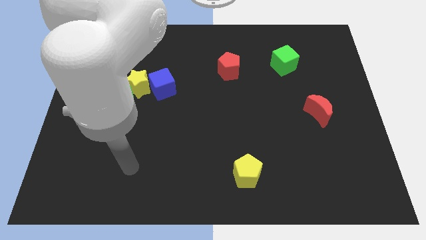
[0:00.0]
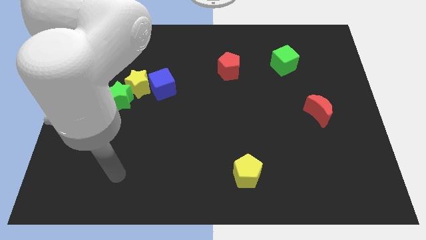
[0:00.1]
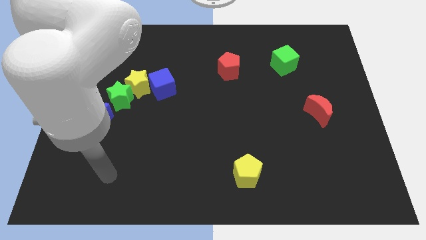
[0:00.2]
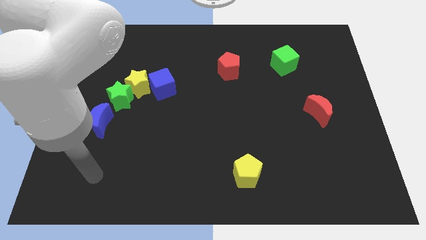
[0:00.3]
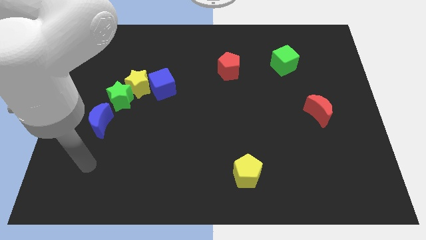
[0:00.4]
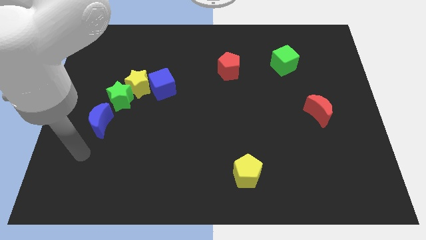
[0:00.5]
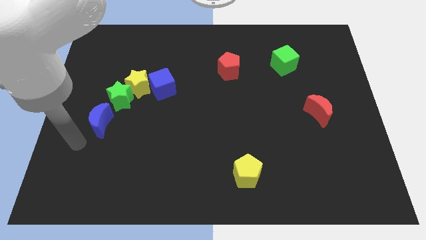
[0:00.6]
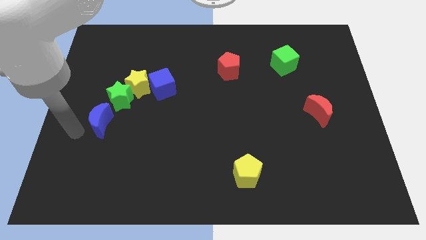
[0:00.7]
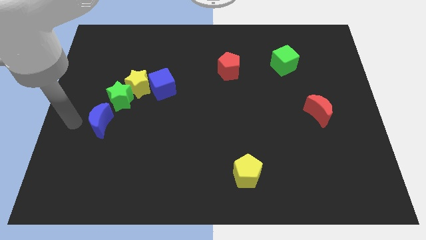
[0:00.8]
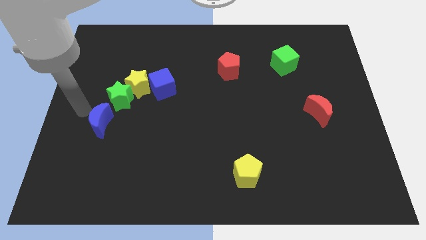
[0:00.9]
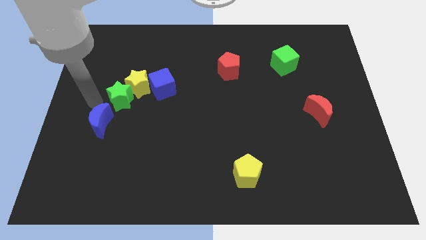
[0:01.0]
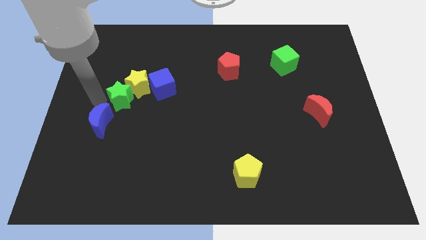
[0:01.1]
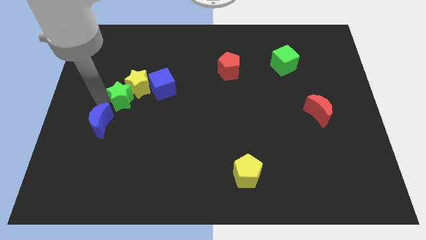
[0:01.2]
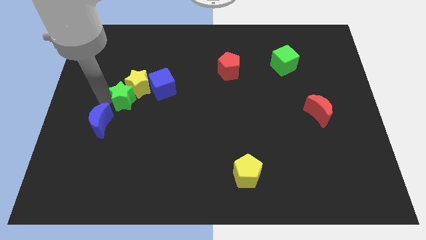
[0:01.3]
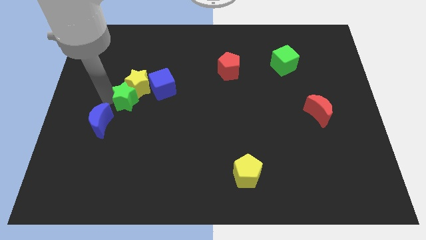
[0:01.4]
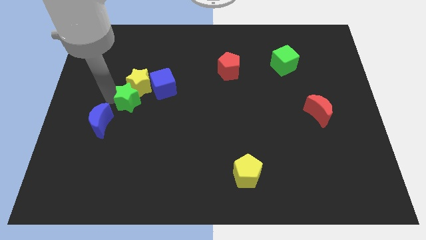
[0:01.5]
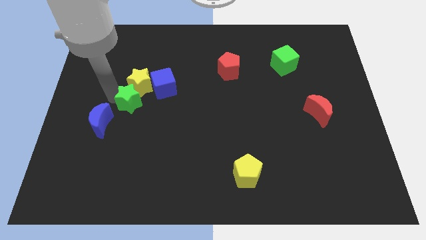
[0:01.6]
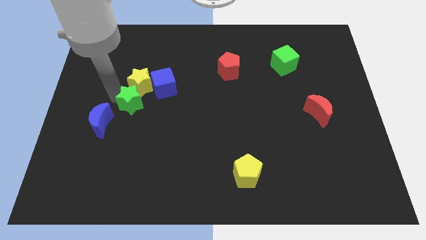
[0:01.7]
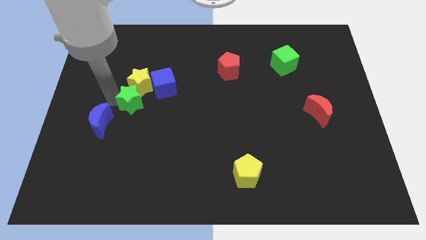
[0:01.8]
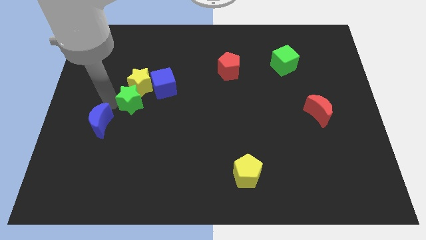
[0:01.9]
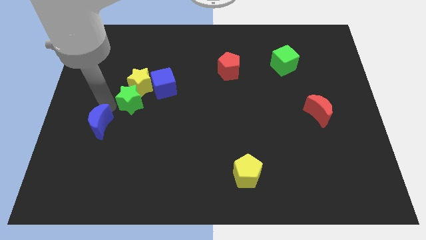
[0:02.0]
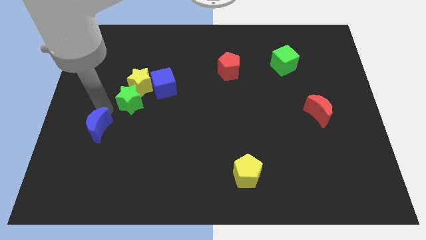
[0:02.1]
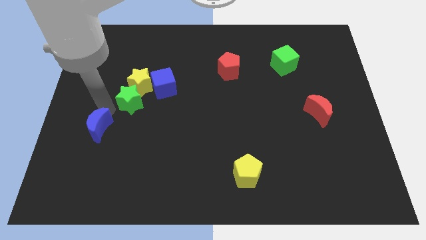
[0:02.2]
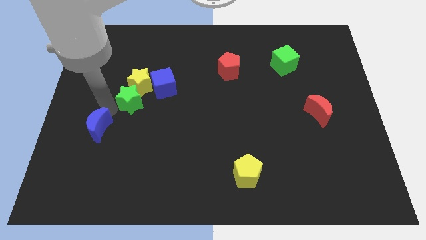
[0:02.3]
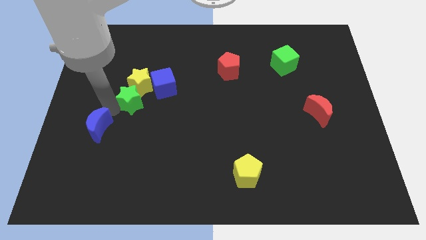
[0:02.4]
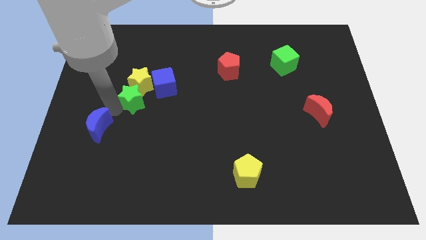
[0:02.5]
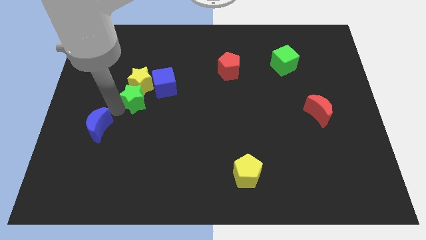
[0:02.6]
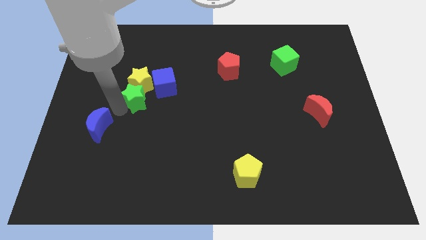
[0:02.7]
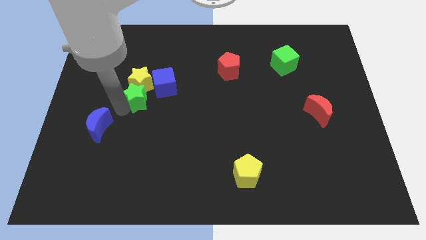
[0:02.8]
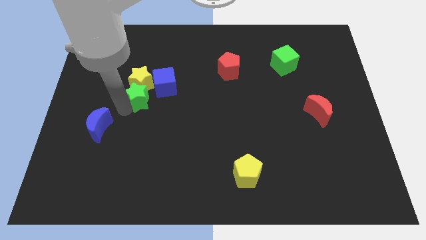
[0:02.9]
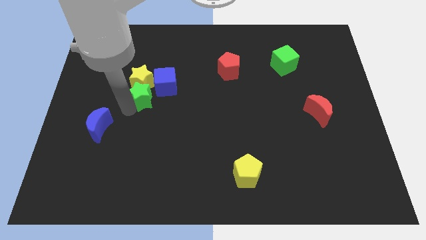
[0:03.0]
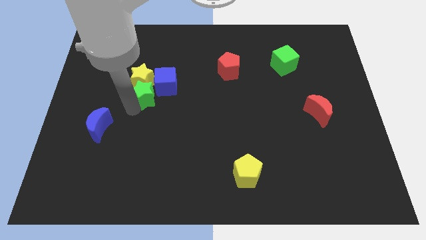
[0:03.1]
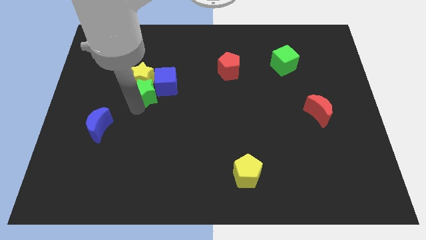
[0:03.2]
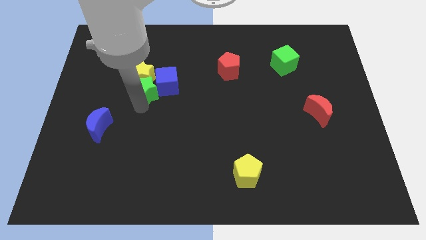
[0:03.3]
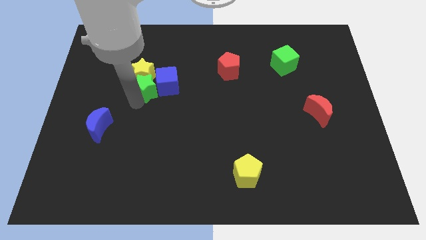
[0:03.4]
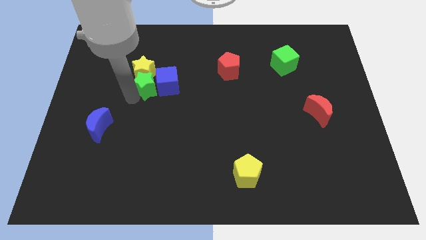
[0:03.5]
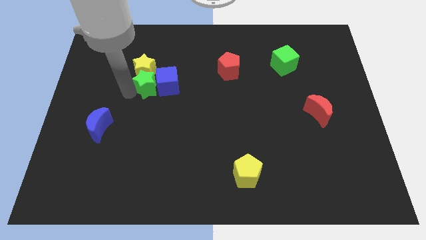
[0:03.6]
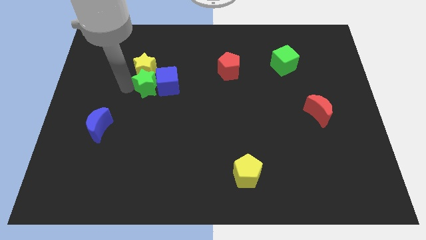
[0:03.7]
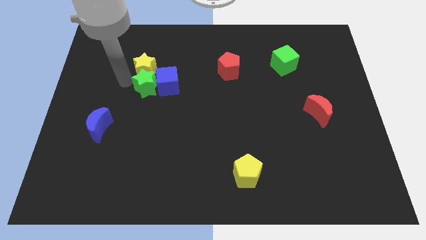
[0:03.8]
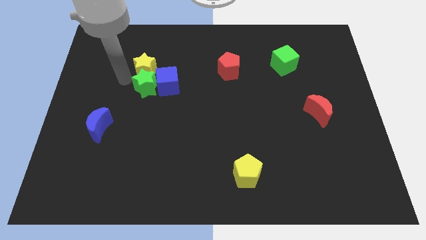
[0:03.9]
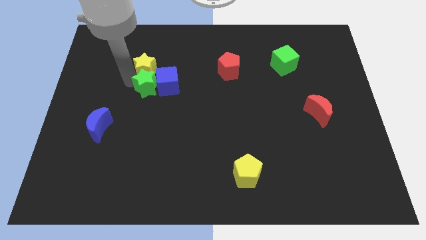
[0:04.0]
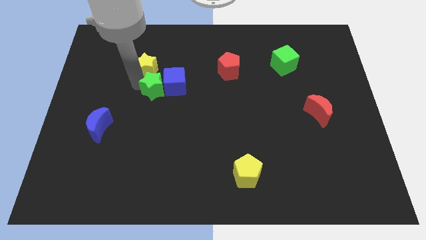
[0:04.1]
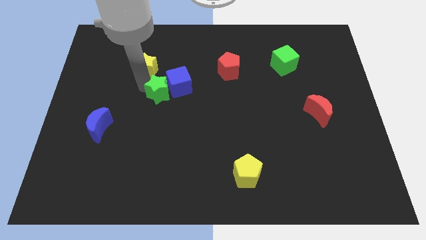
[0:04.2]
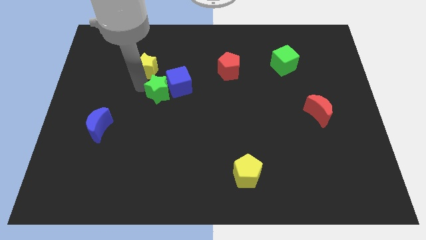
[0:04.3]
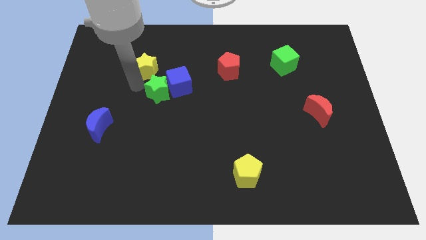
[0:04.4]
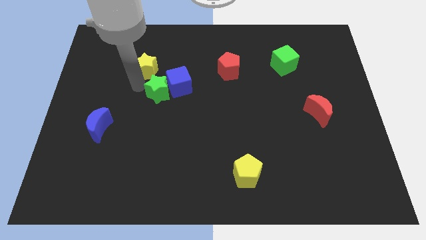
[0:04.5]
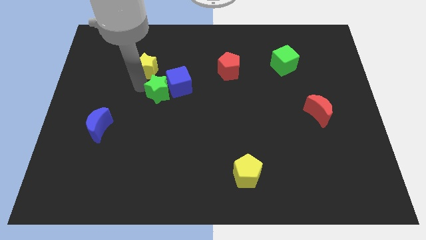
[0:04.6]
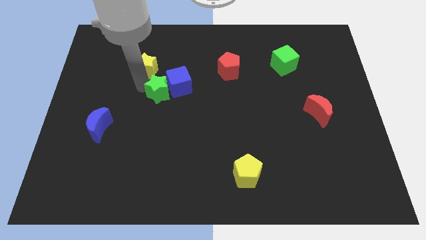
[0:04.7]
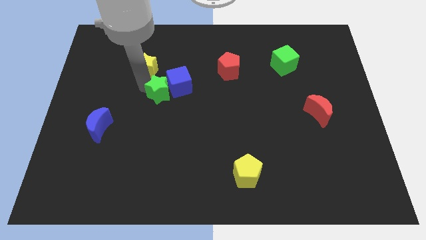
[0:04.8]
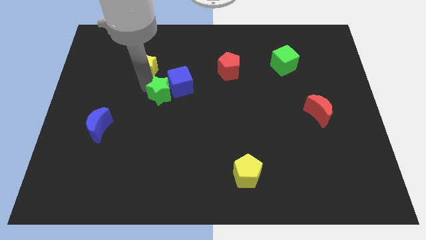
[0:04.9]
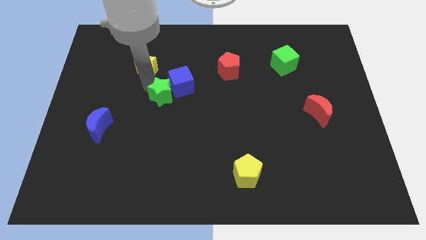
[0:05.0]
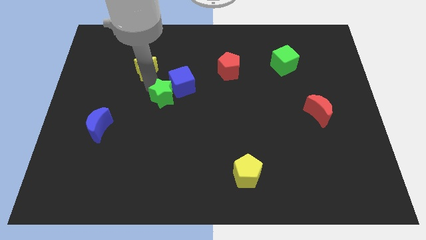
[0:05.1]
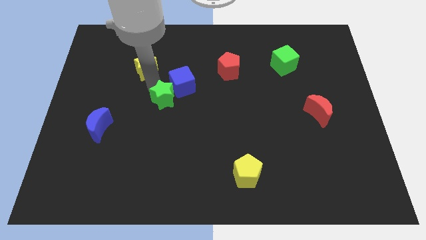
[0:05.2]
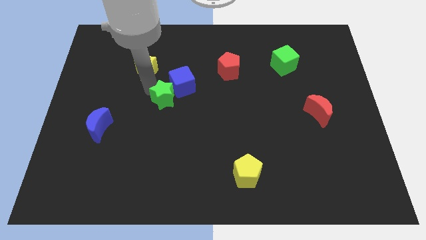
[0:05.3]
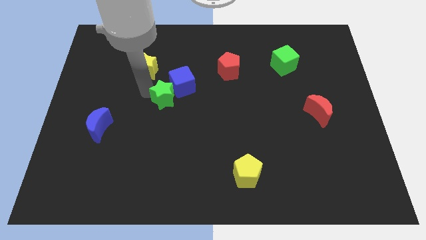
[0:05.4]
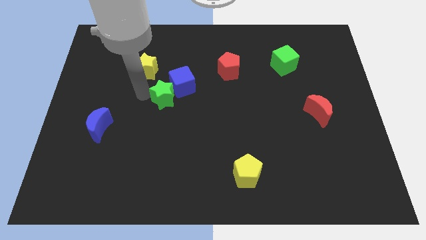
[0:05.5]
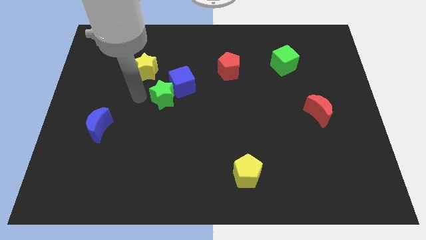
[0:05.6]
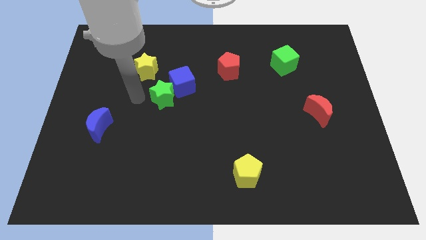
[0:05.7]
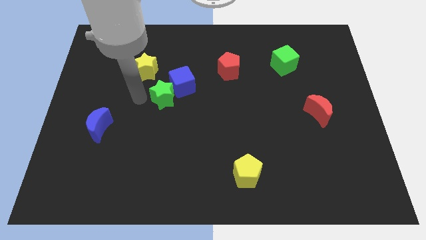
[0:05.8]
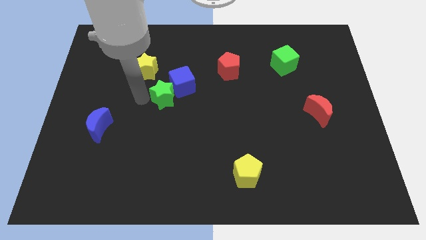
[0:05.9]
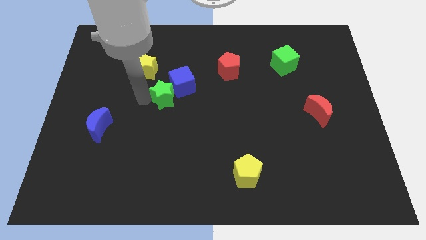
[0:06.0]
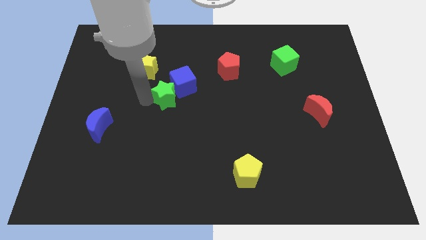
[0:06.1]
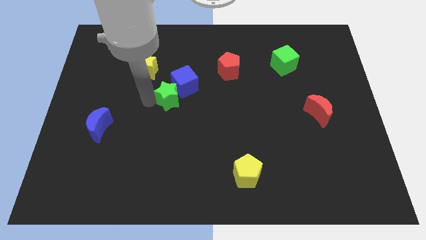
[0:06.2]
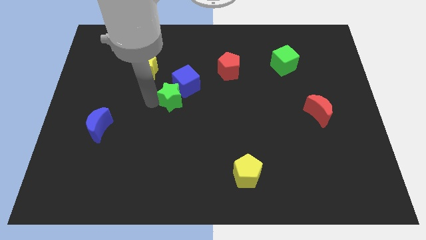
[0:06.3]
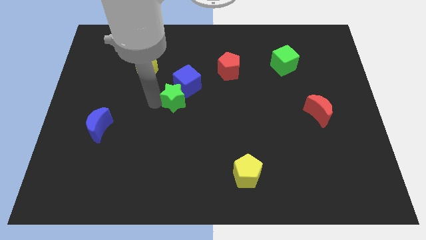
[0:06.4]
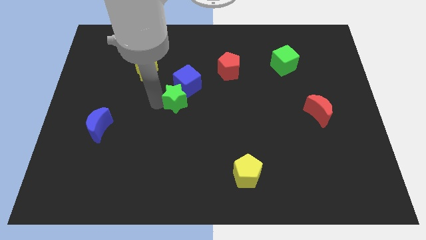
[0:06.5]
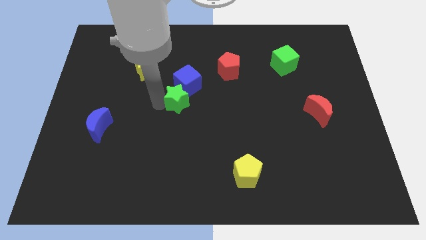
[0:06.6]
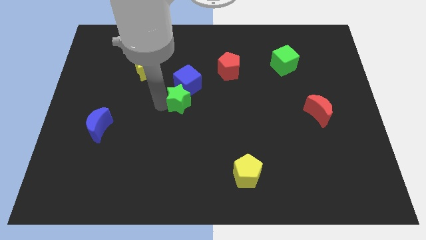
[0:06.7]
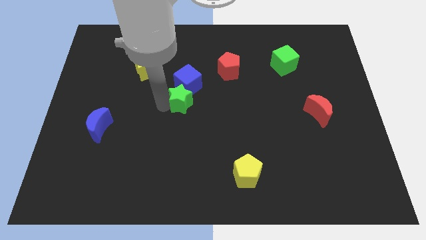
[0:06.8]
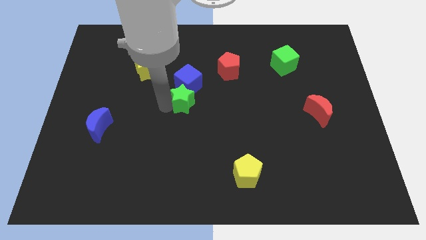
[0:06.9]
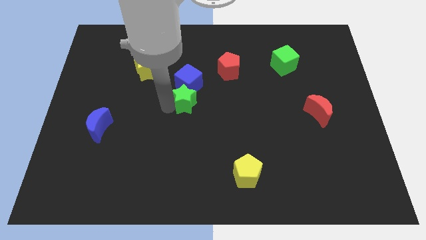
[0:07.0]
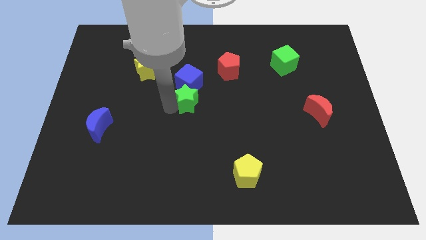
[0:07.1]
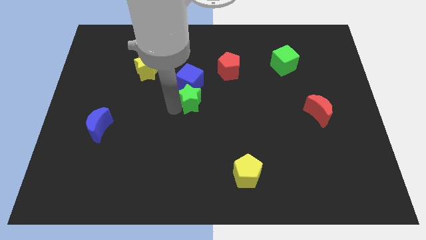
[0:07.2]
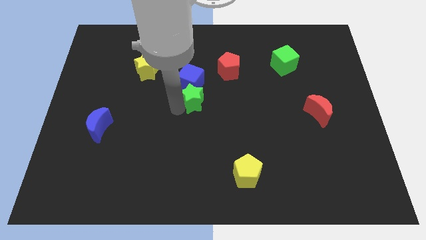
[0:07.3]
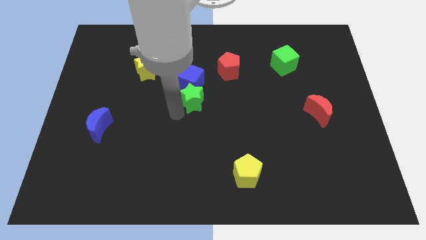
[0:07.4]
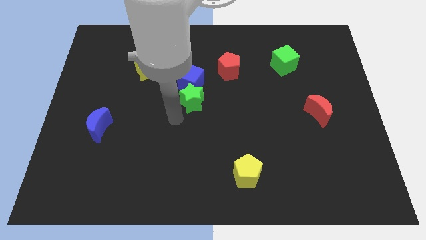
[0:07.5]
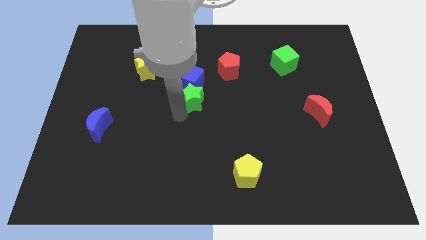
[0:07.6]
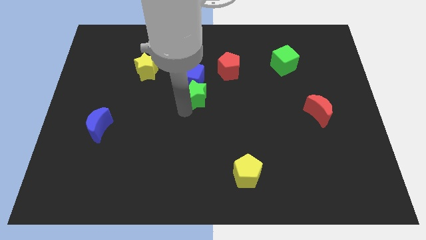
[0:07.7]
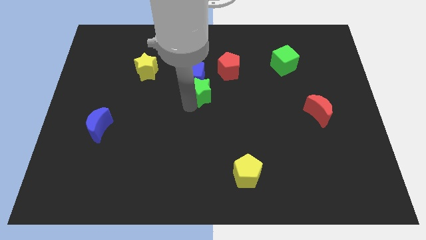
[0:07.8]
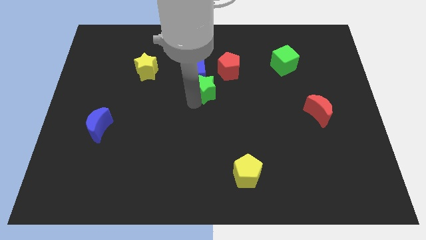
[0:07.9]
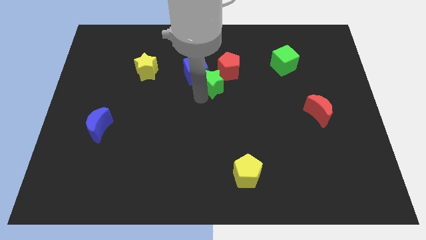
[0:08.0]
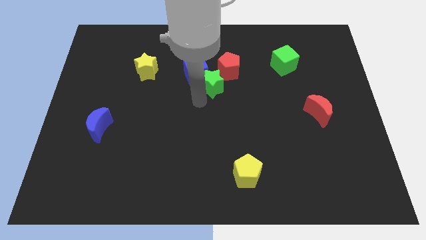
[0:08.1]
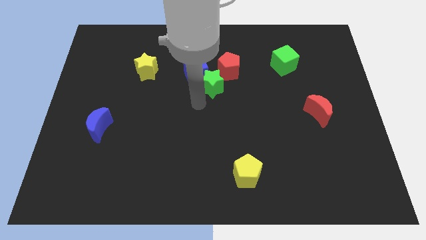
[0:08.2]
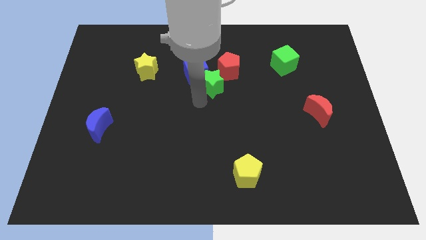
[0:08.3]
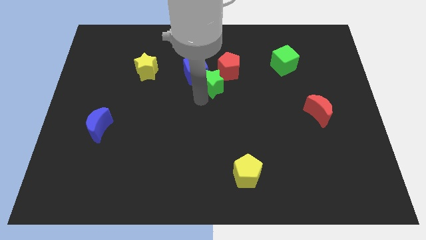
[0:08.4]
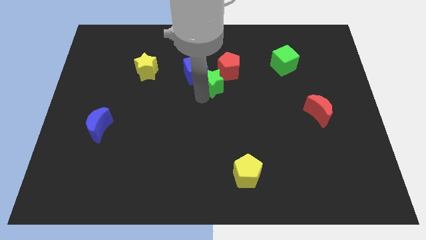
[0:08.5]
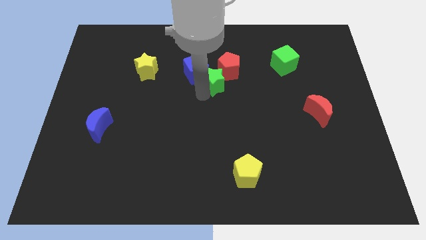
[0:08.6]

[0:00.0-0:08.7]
move the green star towards the red pentagon
